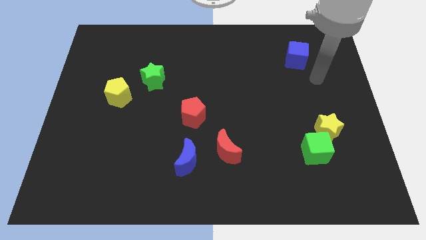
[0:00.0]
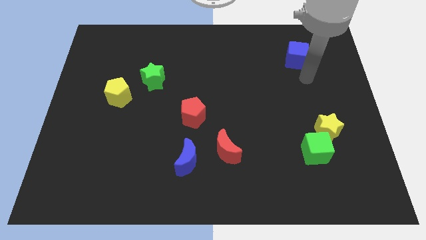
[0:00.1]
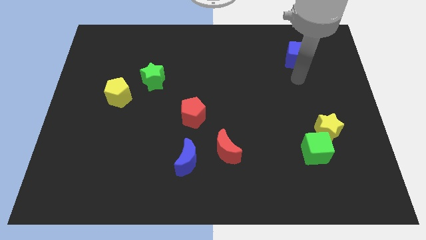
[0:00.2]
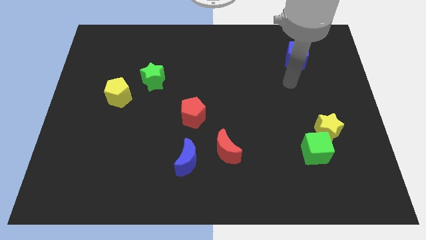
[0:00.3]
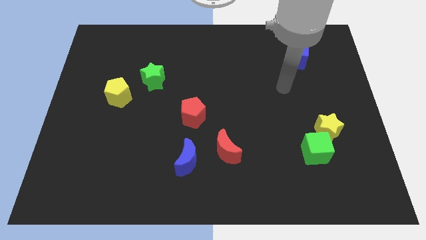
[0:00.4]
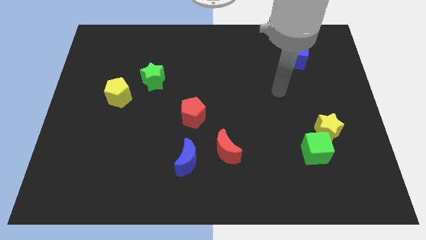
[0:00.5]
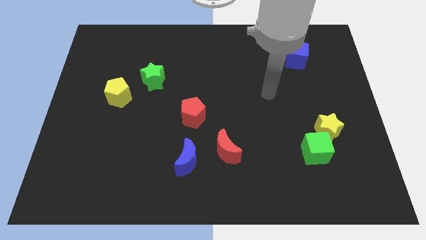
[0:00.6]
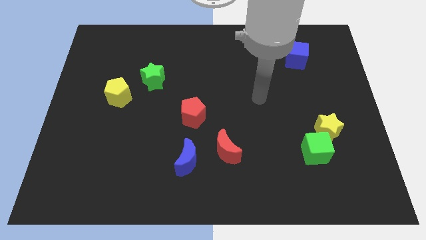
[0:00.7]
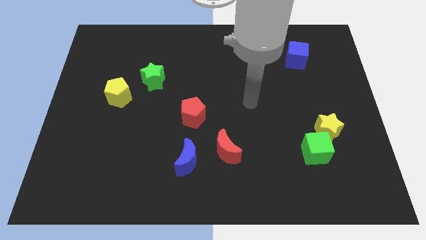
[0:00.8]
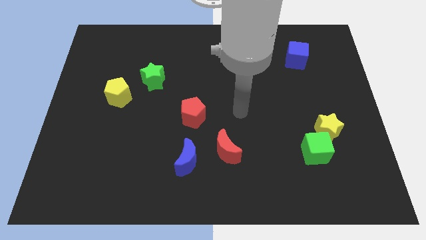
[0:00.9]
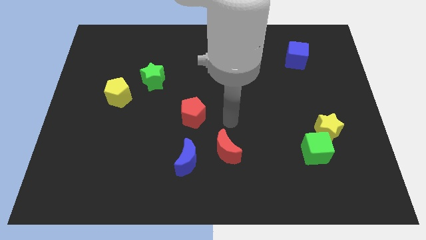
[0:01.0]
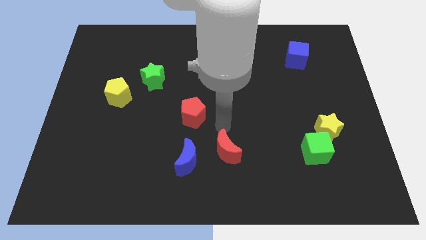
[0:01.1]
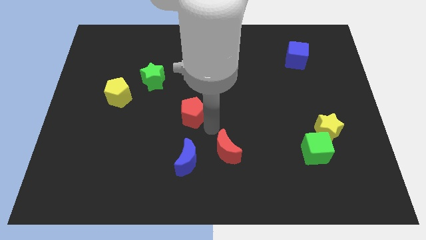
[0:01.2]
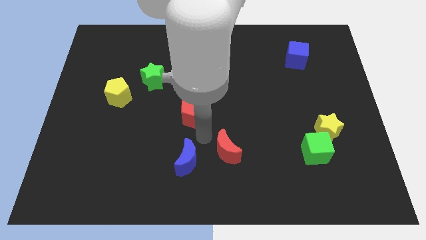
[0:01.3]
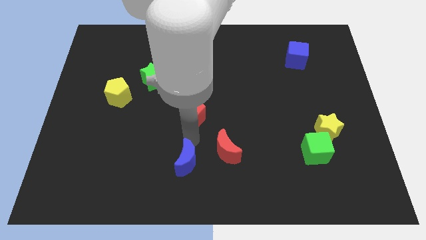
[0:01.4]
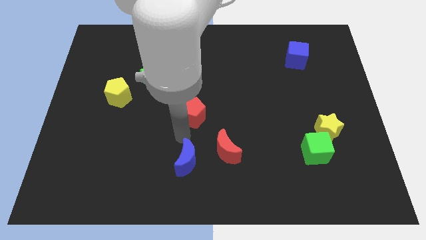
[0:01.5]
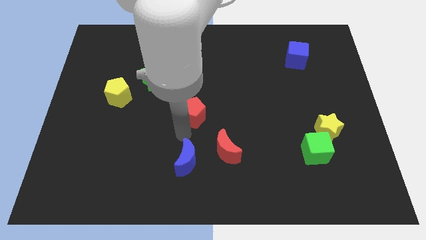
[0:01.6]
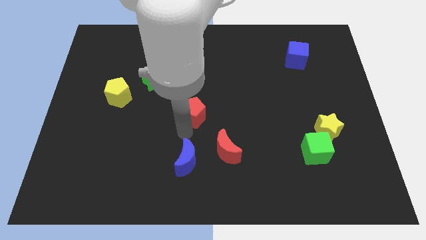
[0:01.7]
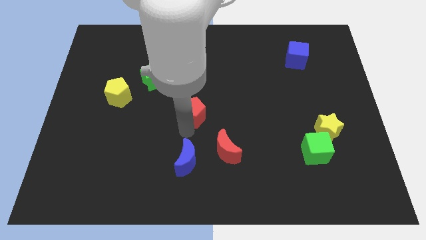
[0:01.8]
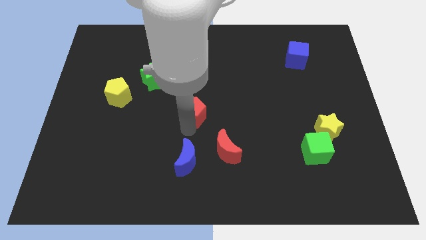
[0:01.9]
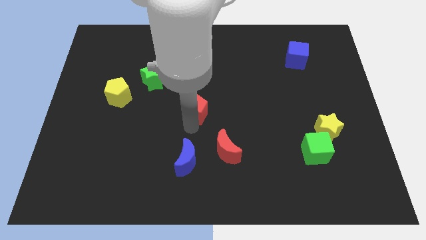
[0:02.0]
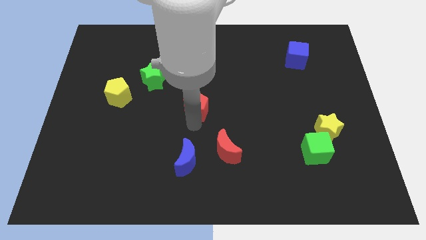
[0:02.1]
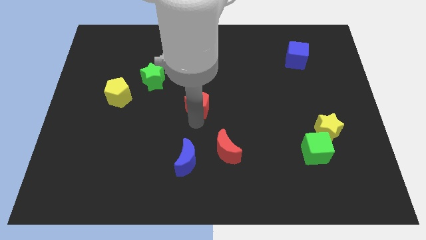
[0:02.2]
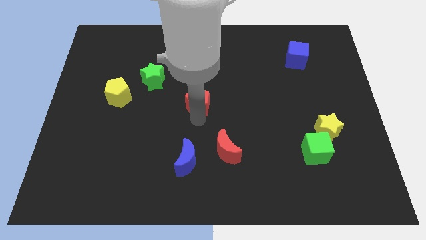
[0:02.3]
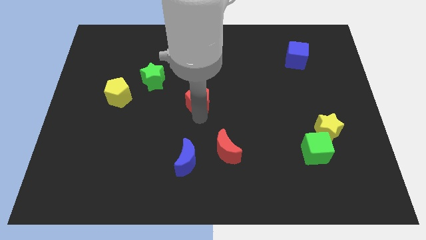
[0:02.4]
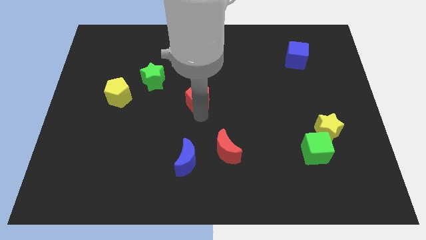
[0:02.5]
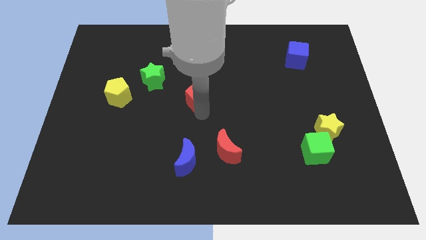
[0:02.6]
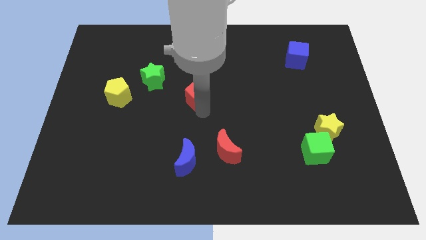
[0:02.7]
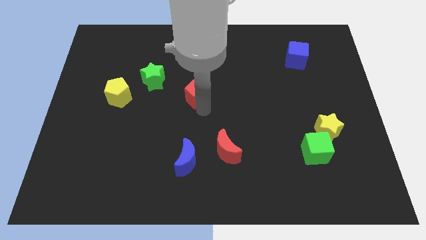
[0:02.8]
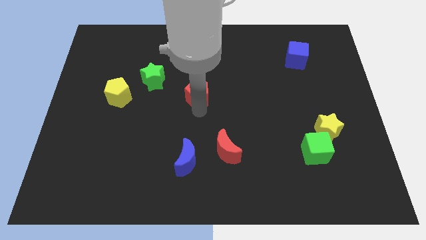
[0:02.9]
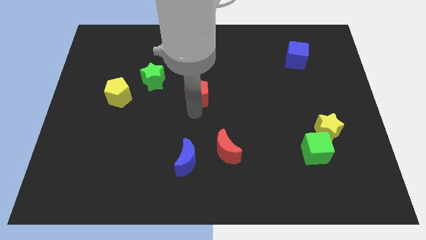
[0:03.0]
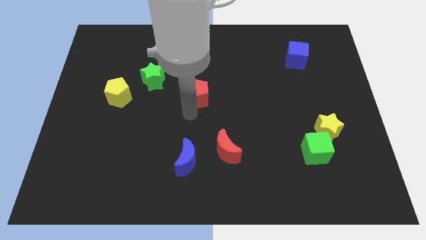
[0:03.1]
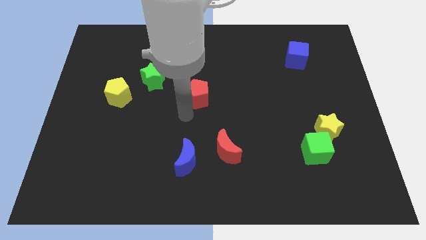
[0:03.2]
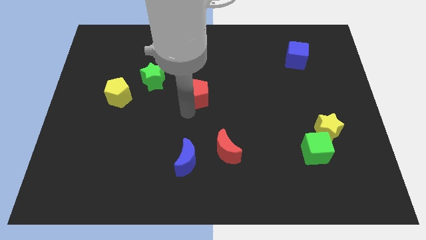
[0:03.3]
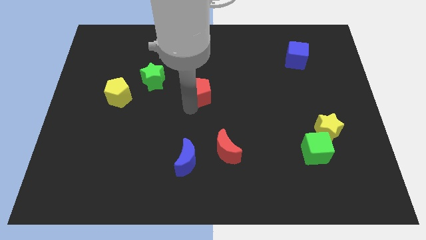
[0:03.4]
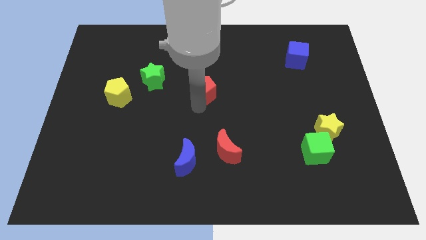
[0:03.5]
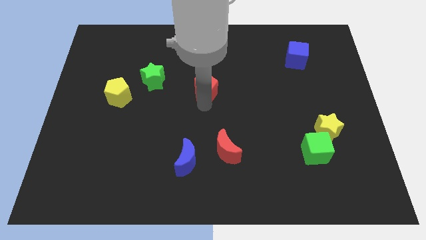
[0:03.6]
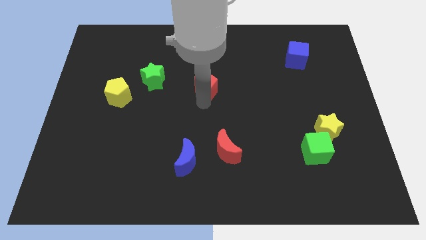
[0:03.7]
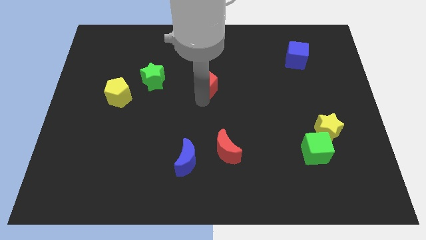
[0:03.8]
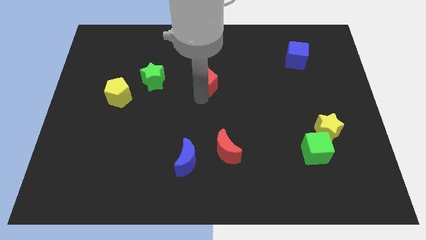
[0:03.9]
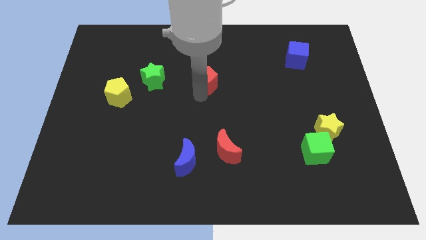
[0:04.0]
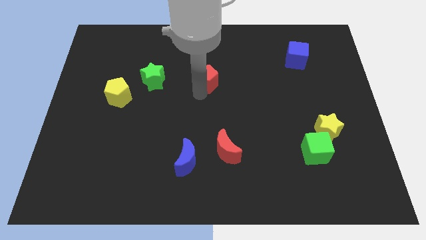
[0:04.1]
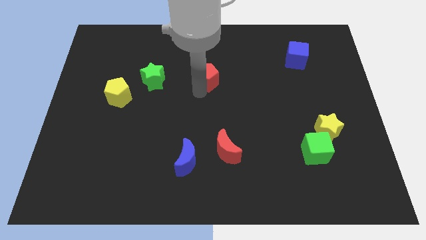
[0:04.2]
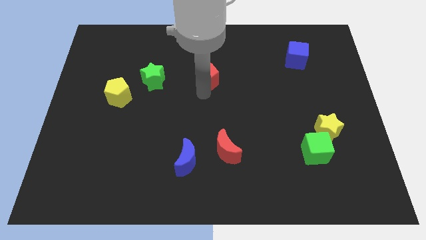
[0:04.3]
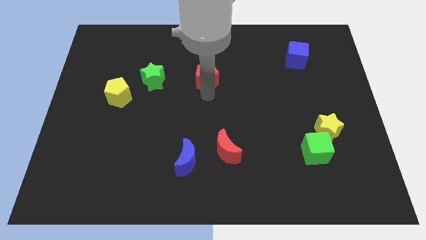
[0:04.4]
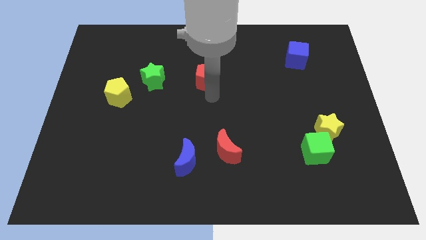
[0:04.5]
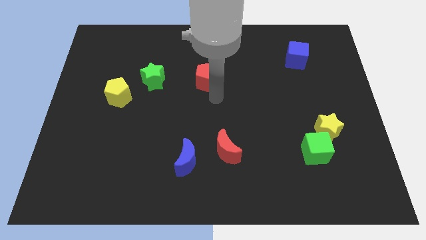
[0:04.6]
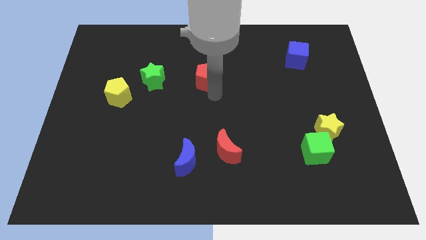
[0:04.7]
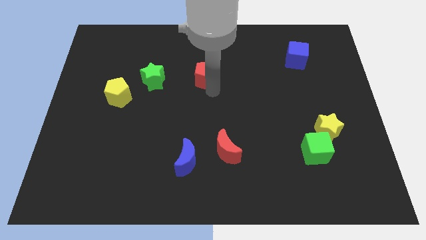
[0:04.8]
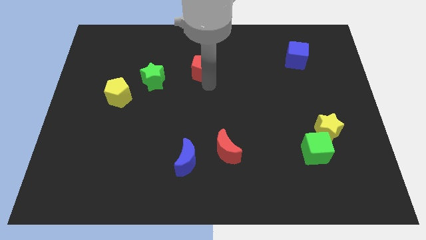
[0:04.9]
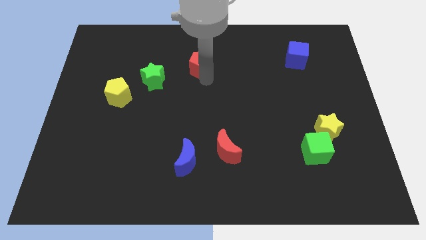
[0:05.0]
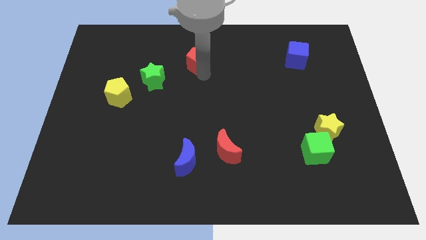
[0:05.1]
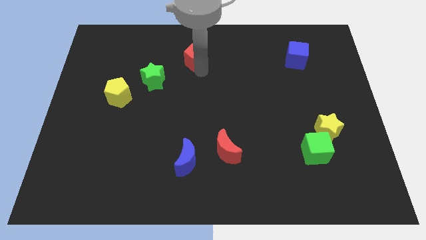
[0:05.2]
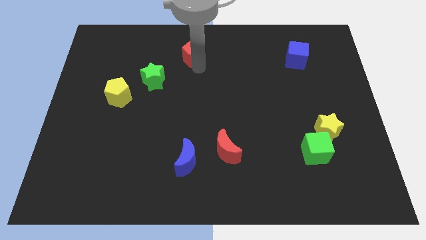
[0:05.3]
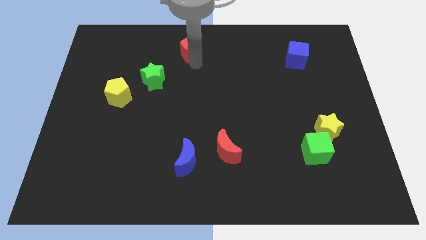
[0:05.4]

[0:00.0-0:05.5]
slide the red pentagon to the towards your base

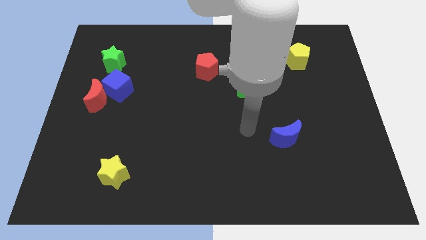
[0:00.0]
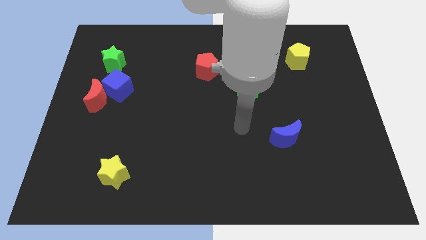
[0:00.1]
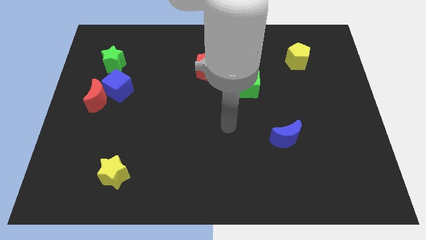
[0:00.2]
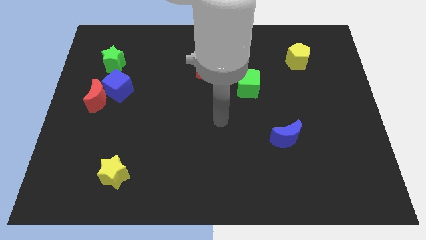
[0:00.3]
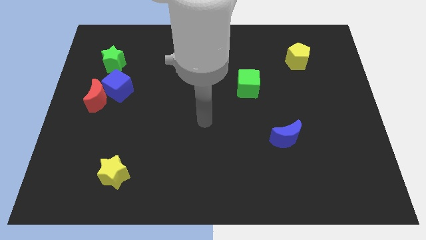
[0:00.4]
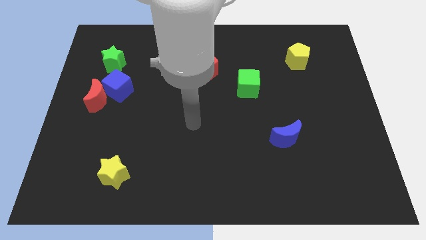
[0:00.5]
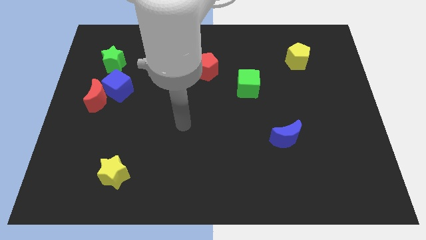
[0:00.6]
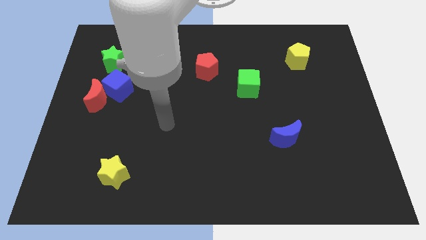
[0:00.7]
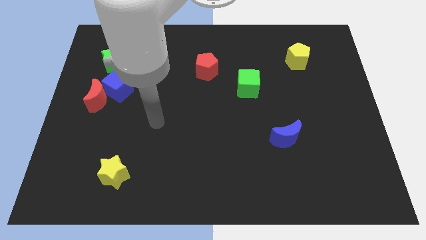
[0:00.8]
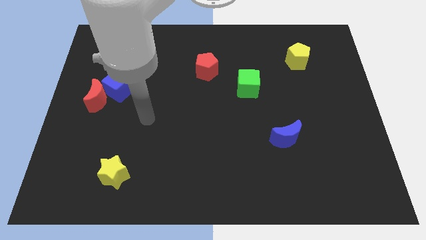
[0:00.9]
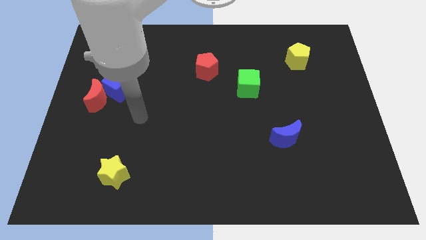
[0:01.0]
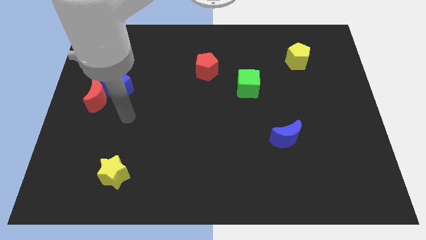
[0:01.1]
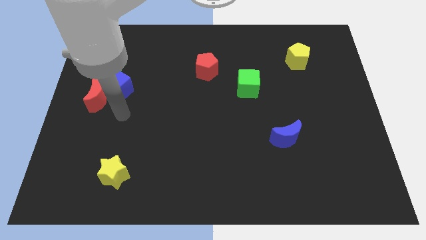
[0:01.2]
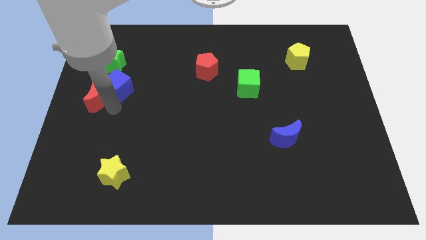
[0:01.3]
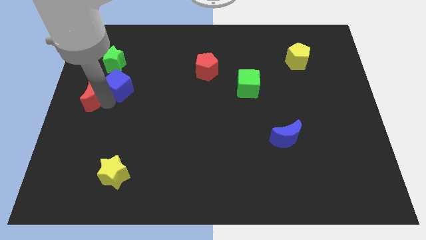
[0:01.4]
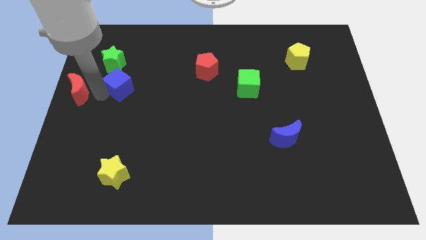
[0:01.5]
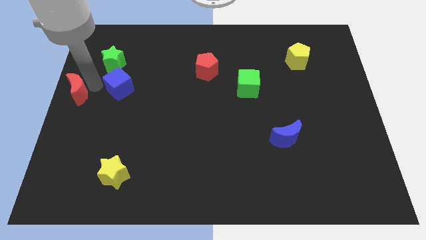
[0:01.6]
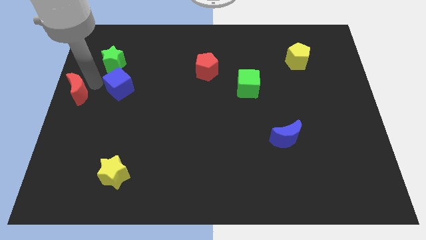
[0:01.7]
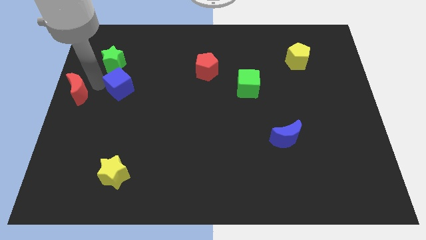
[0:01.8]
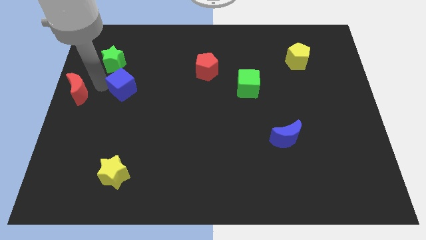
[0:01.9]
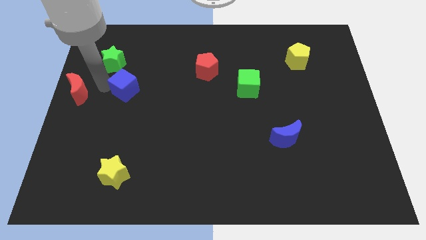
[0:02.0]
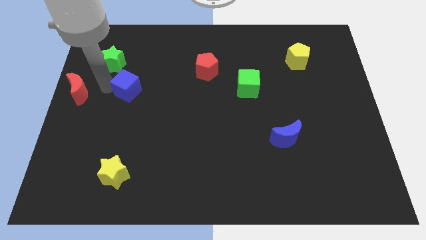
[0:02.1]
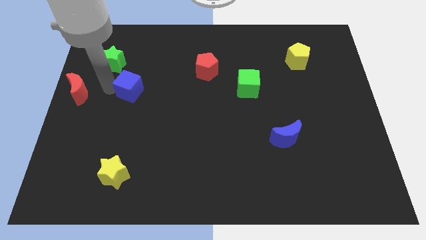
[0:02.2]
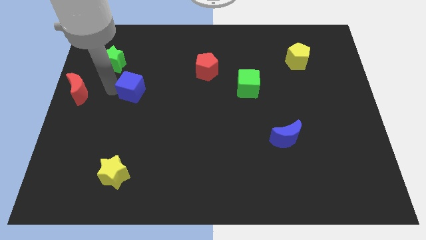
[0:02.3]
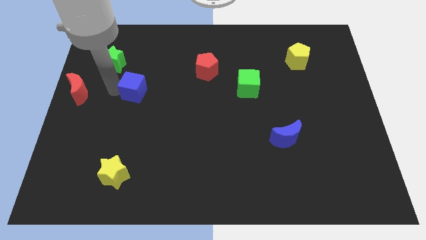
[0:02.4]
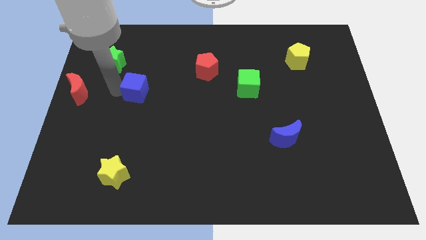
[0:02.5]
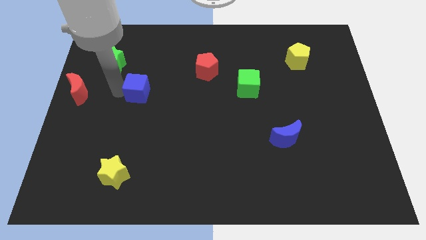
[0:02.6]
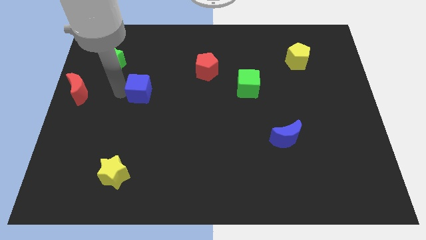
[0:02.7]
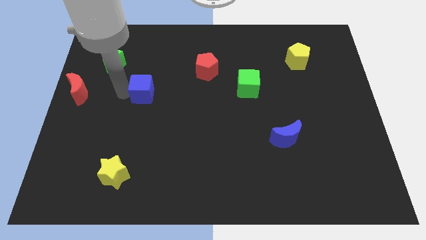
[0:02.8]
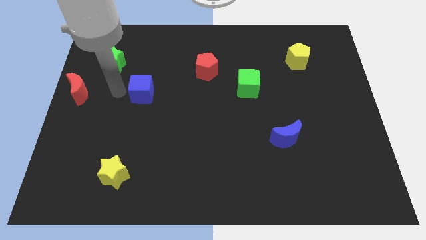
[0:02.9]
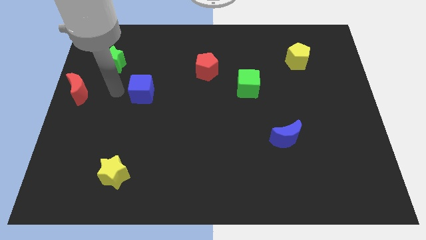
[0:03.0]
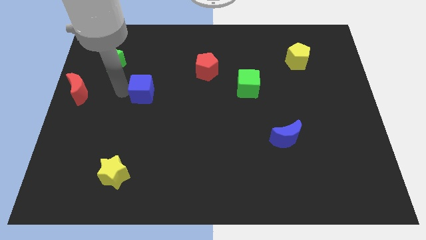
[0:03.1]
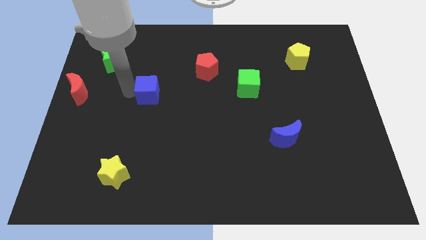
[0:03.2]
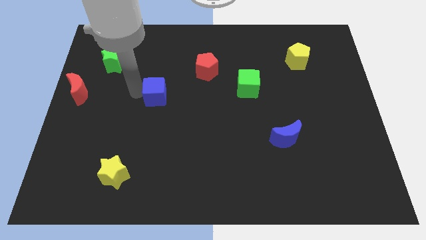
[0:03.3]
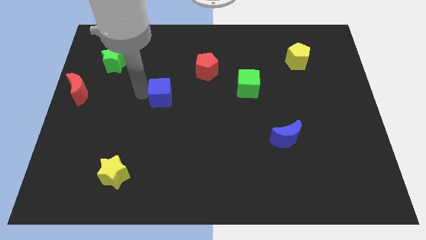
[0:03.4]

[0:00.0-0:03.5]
slide the blue cube to the center of the board
